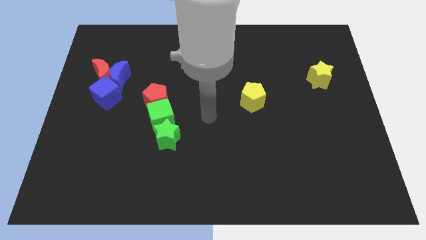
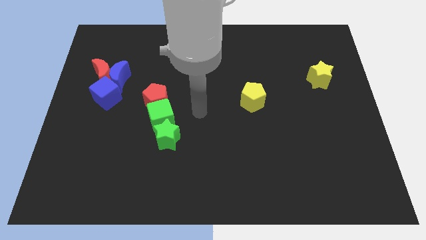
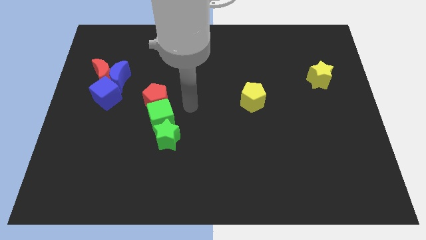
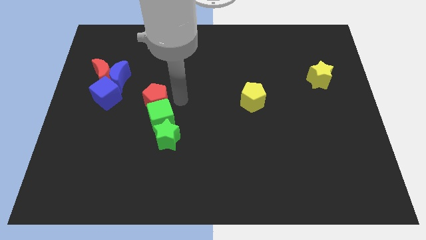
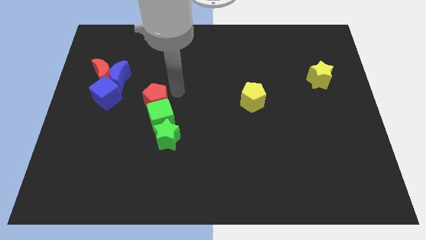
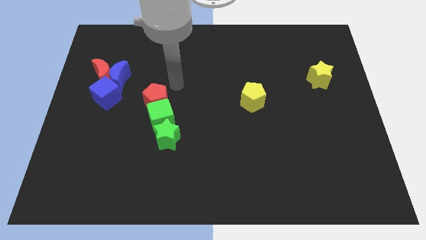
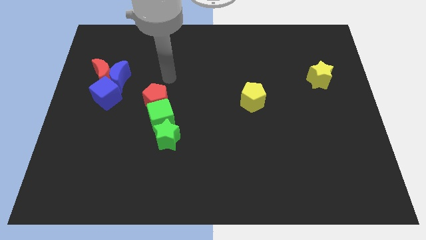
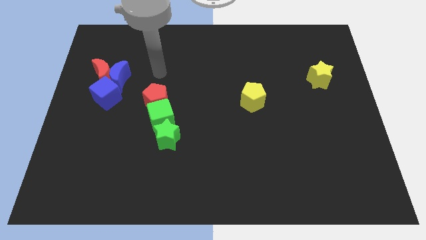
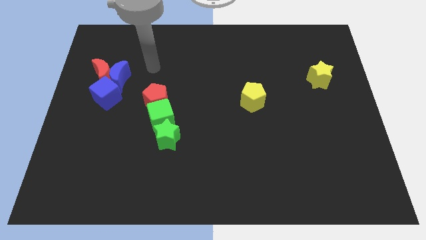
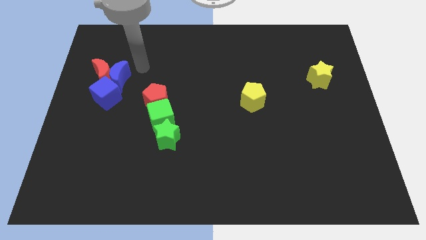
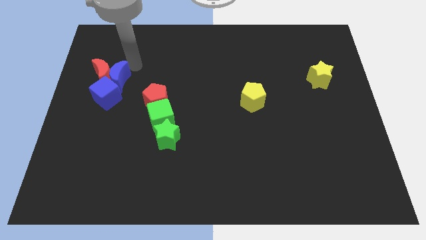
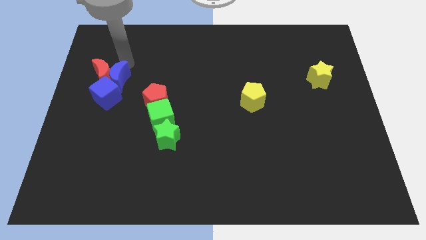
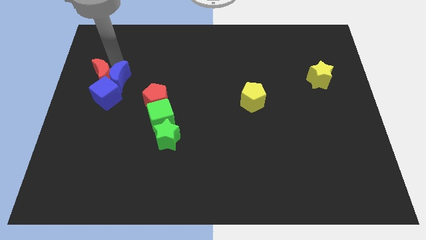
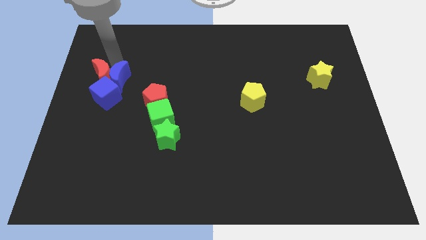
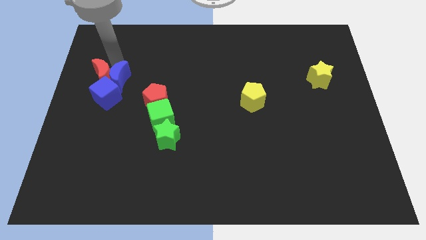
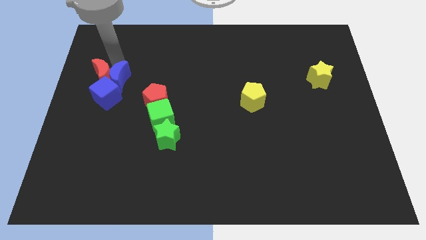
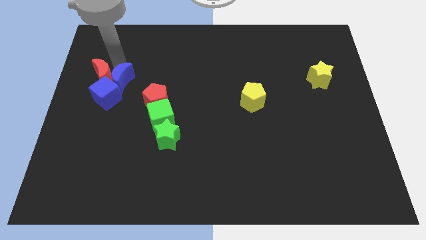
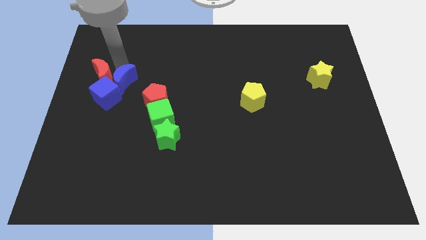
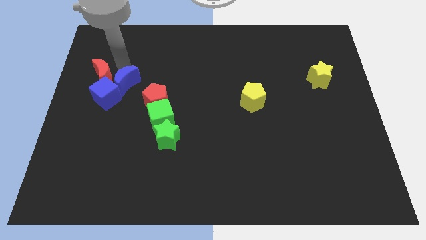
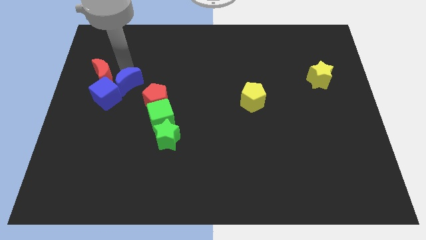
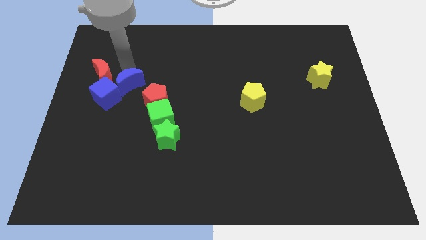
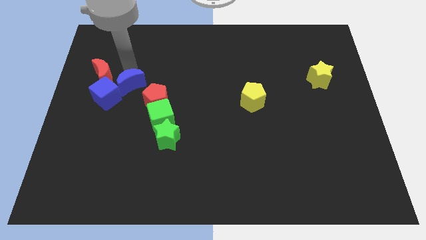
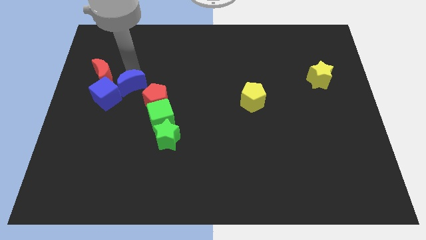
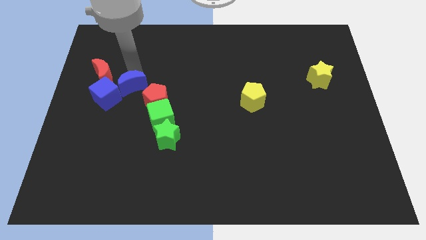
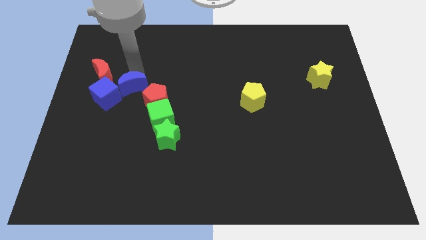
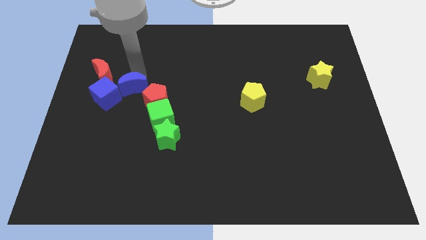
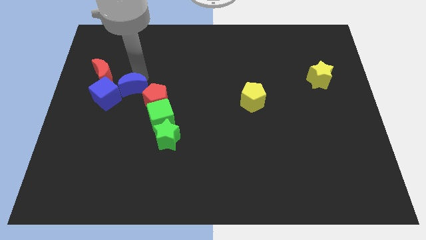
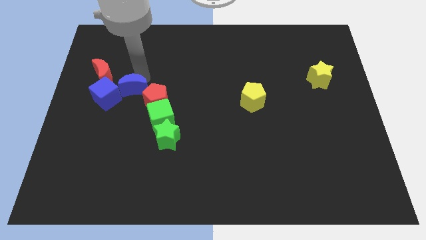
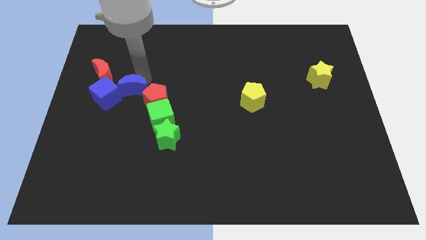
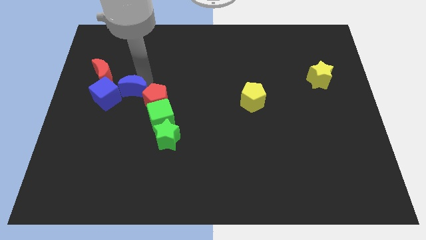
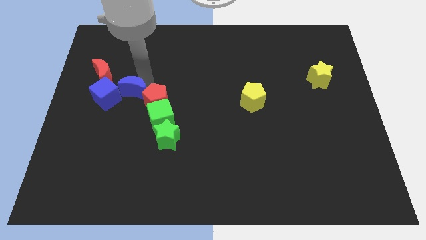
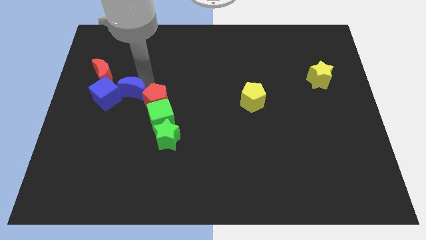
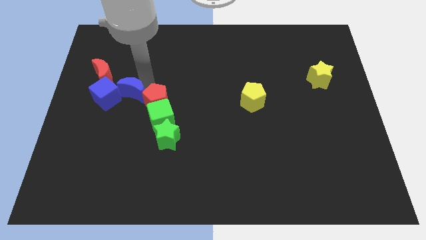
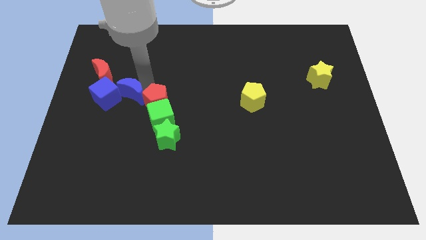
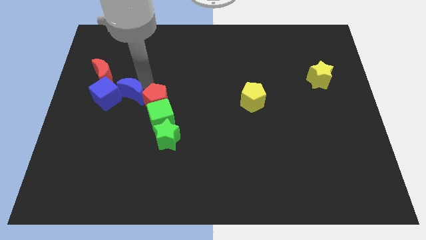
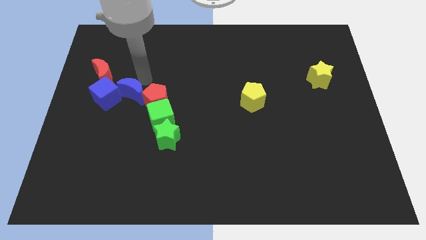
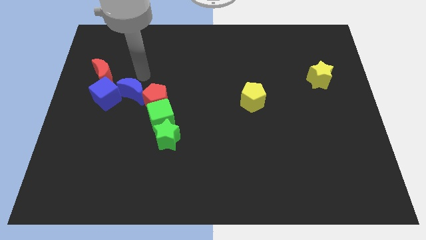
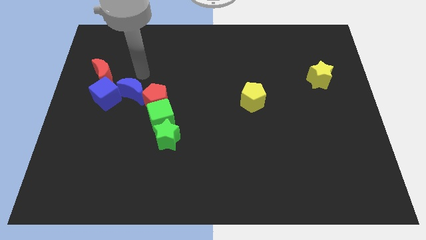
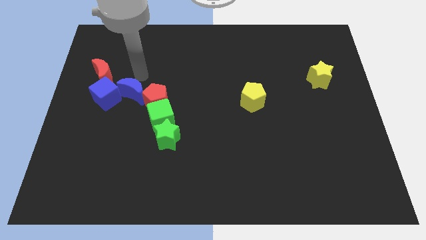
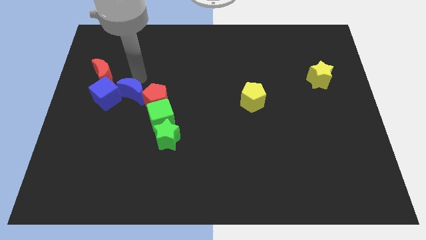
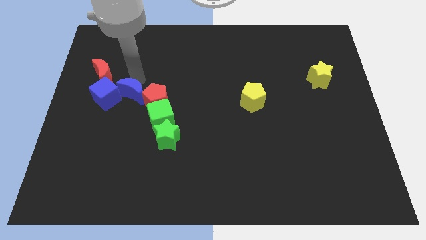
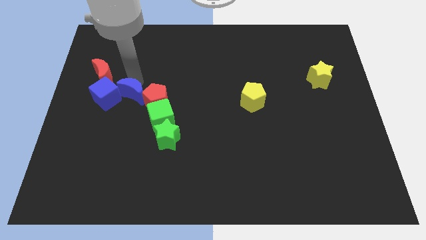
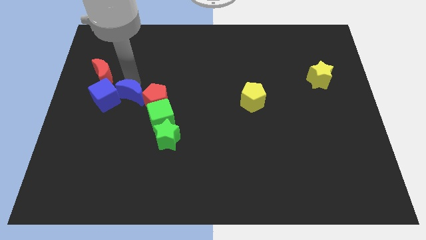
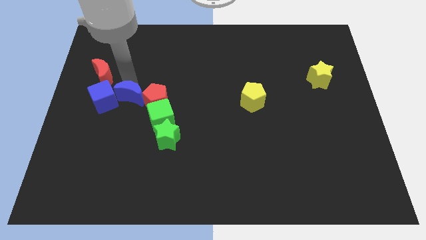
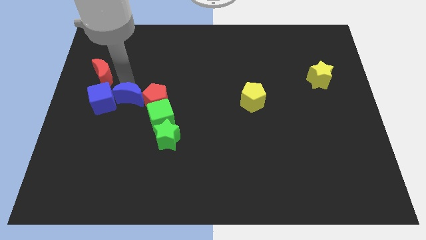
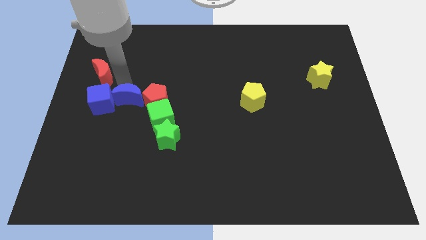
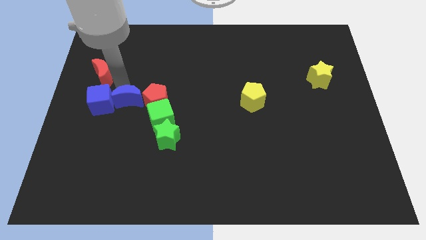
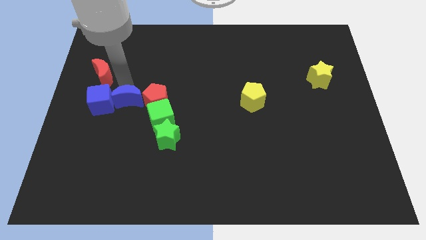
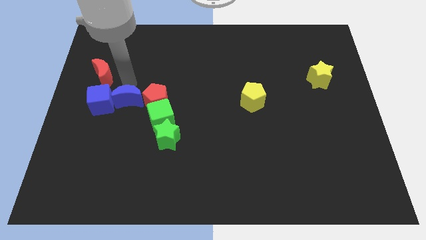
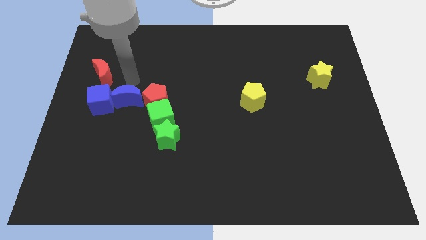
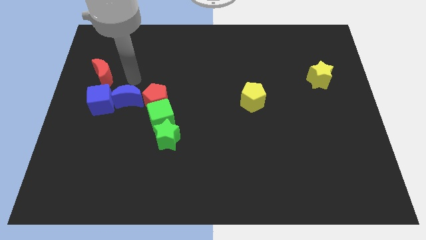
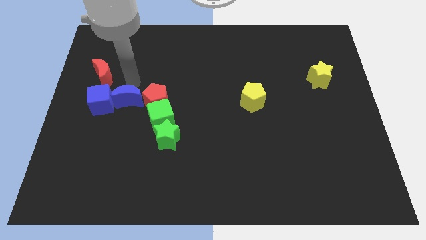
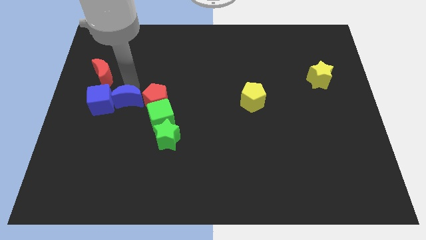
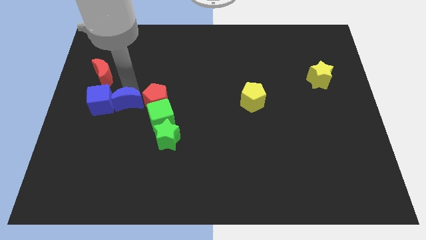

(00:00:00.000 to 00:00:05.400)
slightly push the blue moon downwards

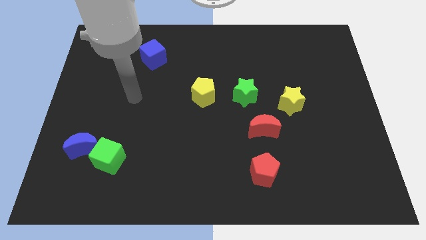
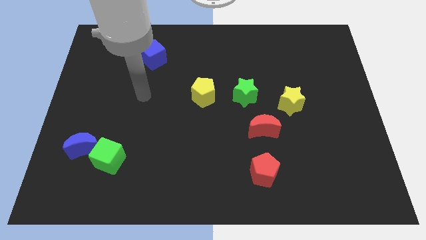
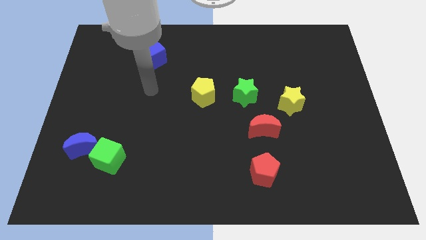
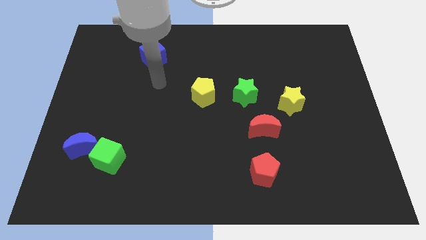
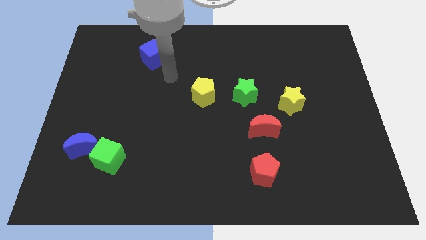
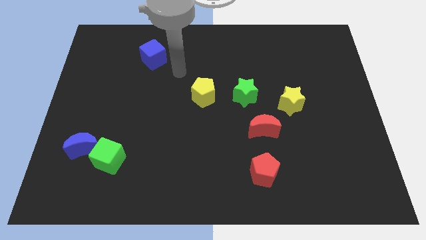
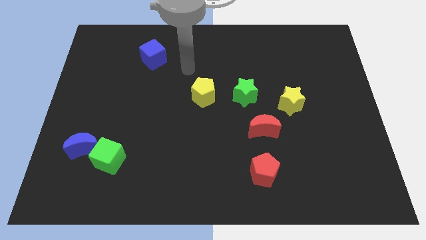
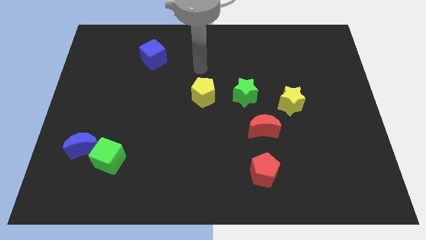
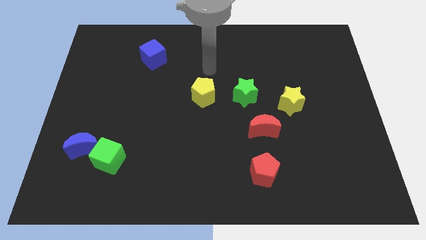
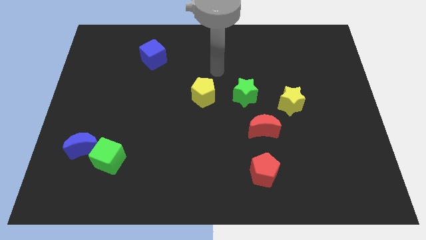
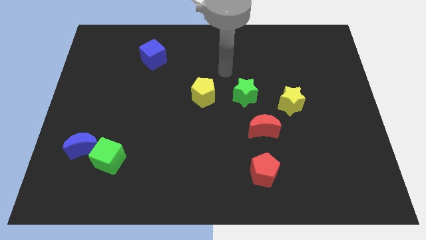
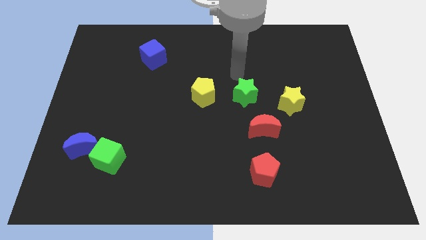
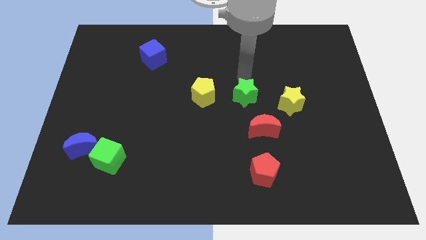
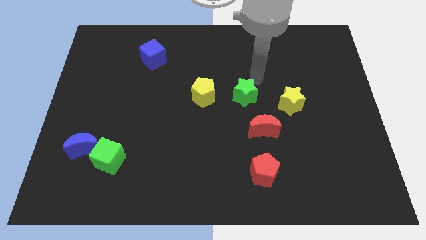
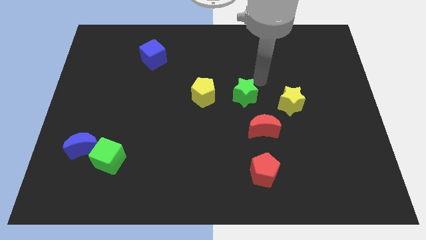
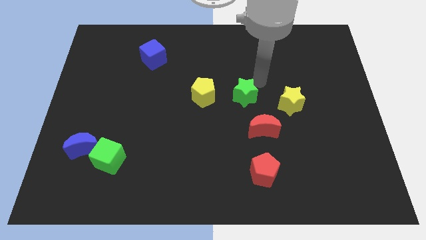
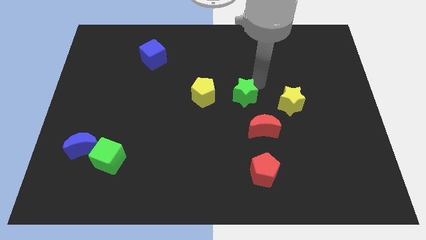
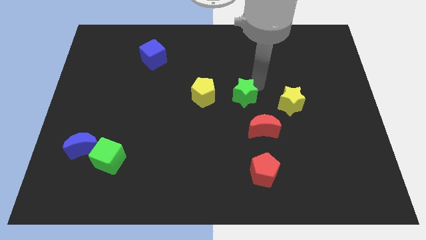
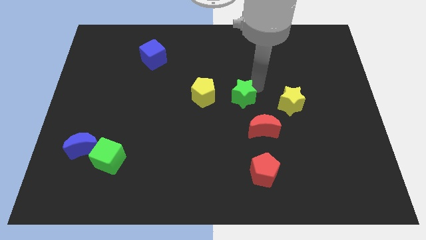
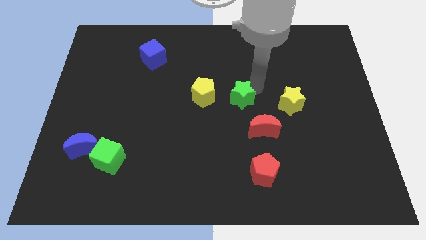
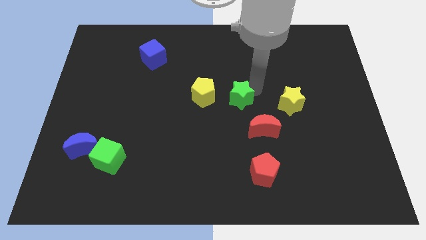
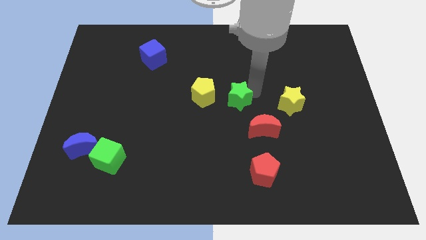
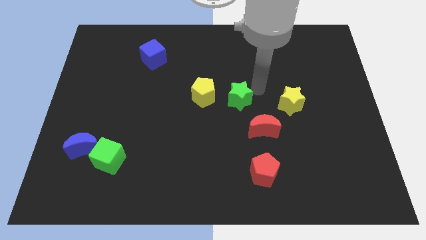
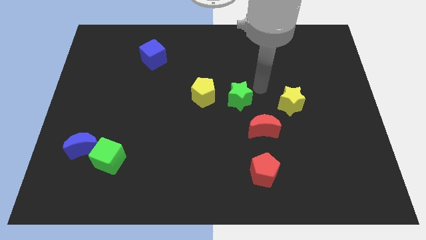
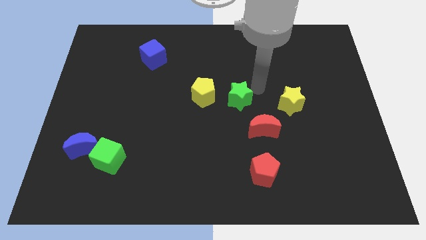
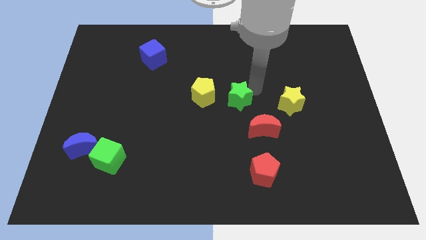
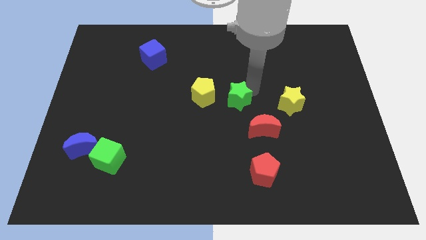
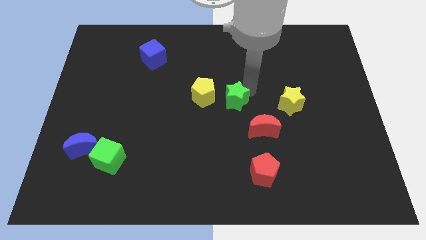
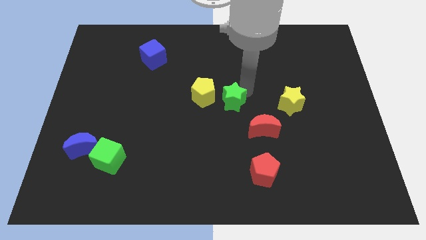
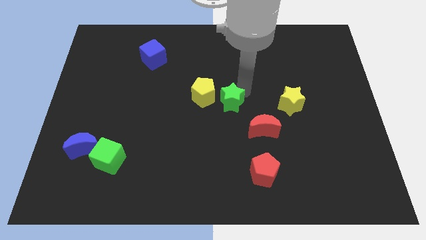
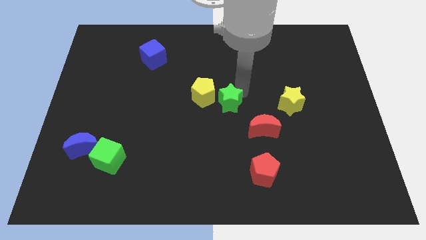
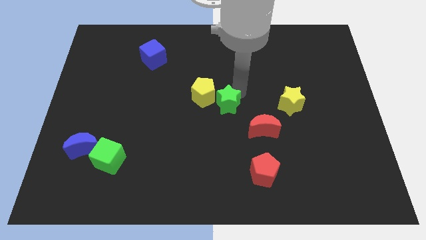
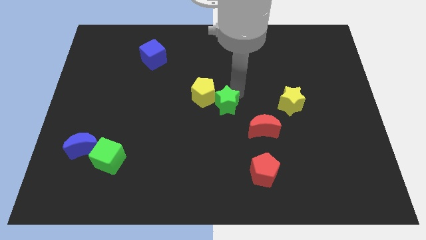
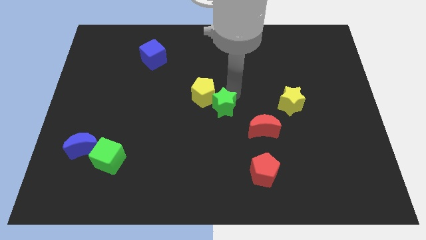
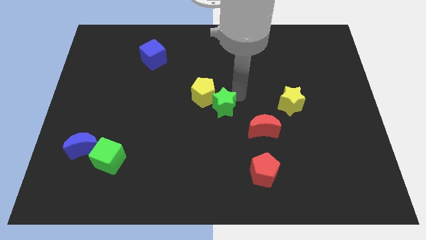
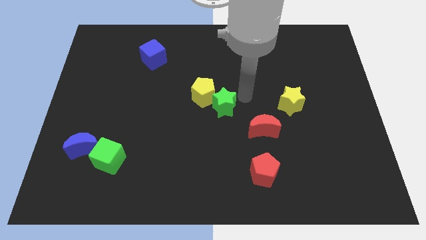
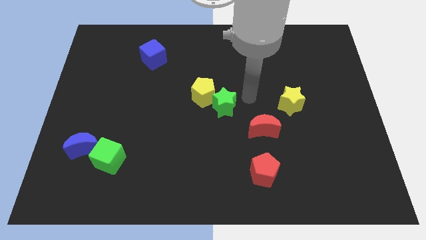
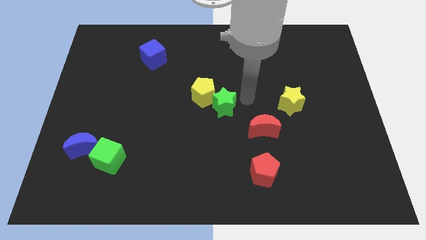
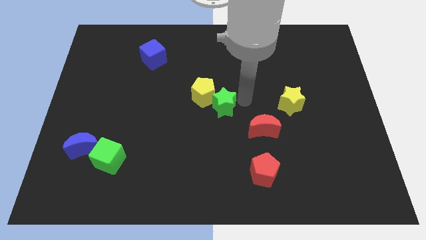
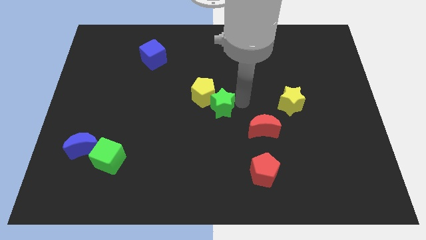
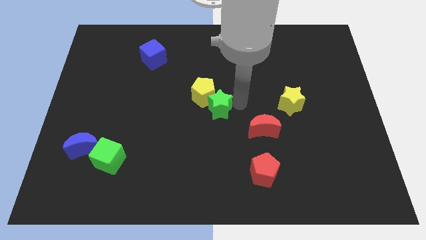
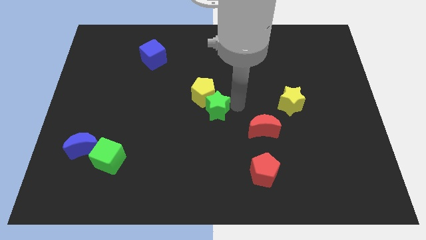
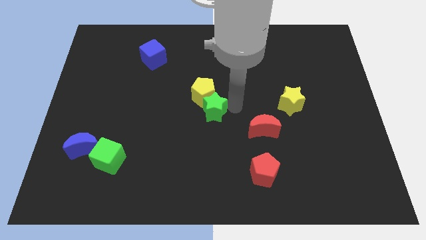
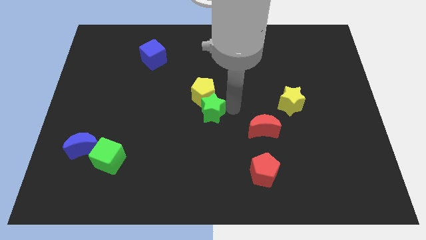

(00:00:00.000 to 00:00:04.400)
push the green star a little to the left
